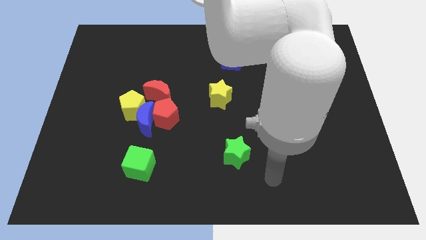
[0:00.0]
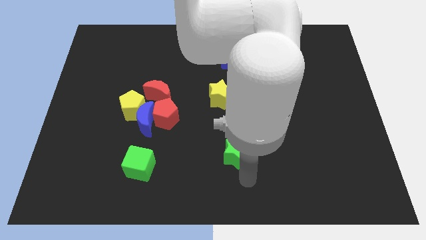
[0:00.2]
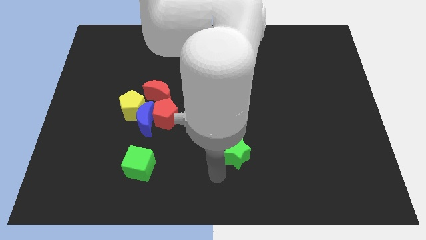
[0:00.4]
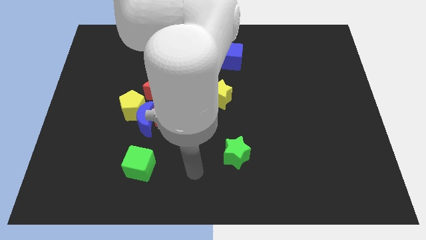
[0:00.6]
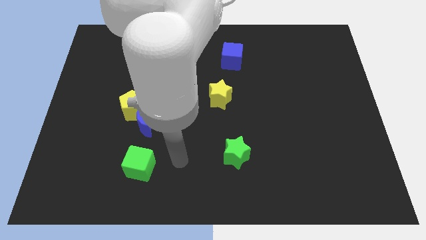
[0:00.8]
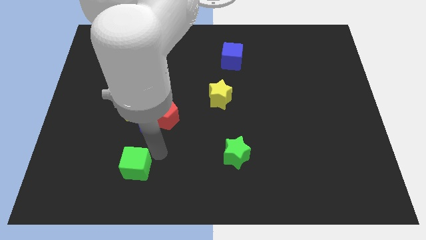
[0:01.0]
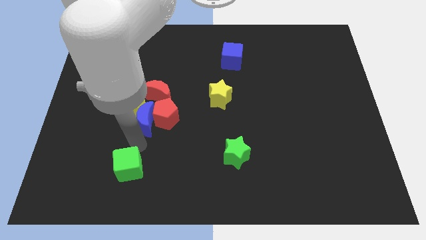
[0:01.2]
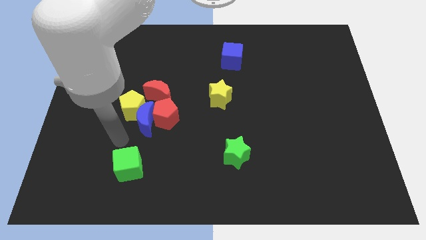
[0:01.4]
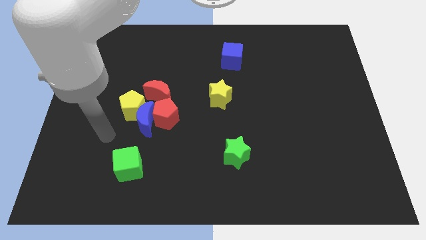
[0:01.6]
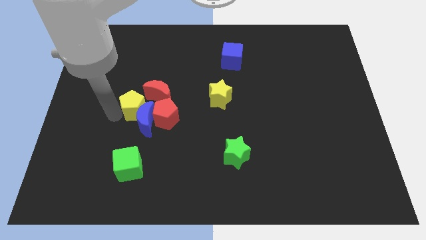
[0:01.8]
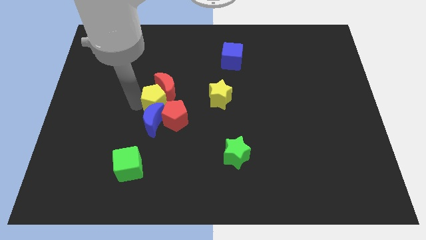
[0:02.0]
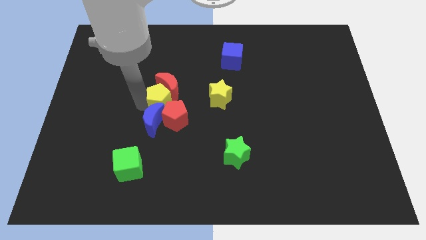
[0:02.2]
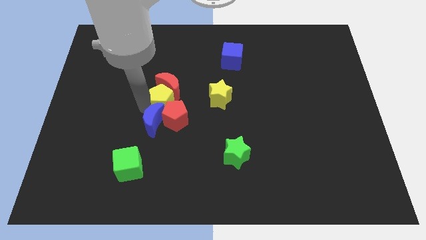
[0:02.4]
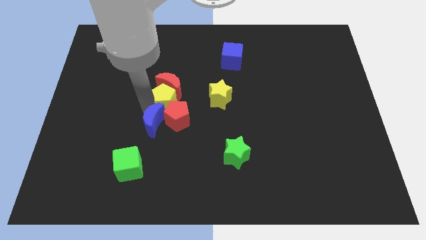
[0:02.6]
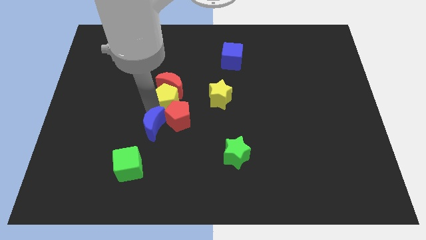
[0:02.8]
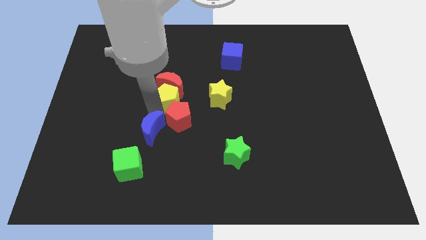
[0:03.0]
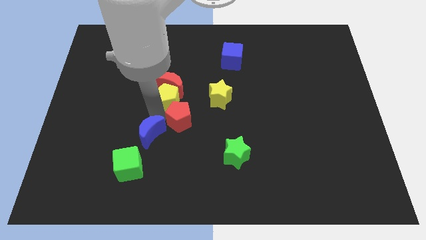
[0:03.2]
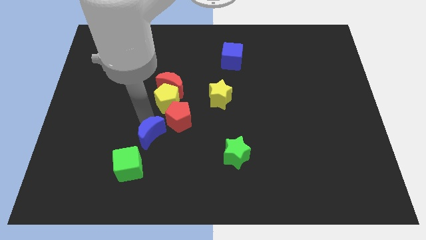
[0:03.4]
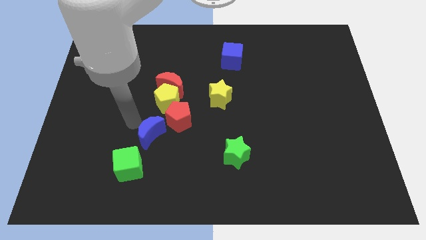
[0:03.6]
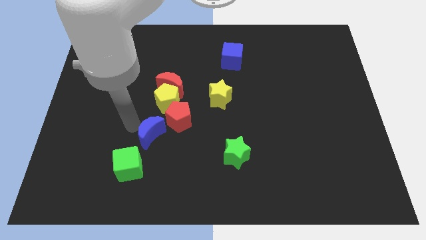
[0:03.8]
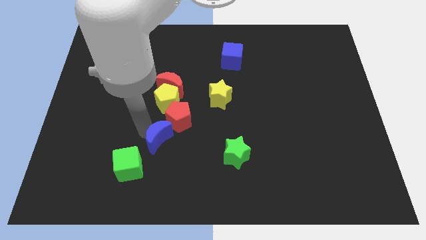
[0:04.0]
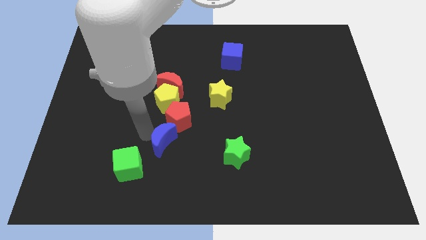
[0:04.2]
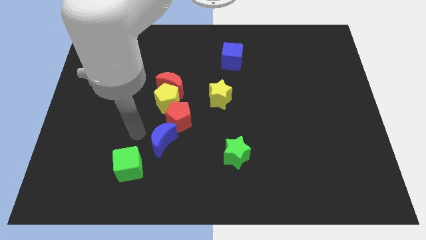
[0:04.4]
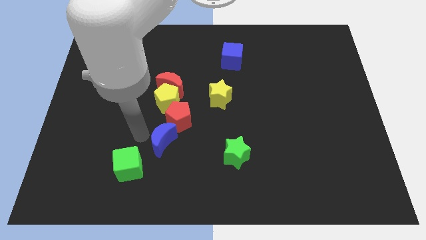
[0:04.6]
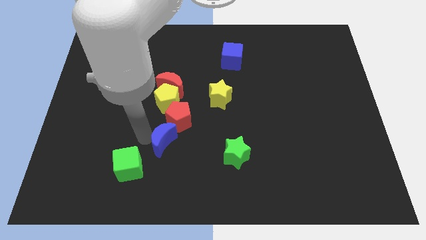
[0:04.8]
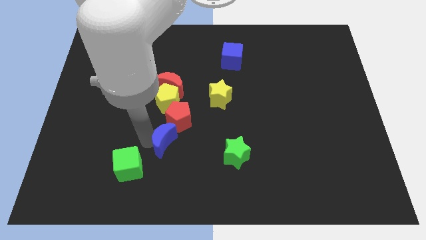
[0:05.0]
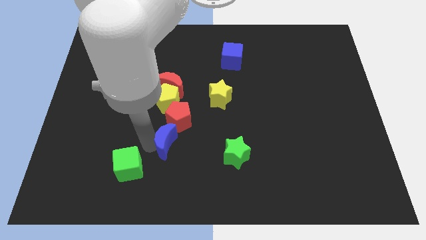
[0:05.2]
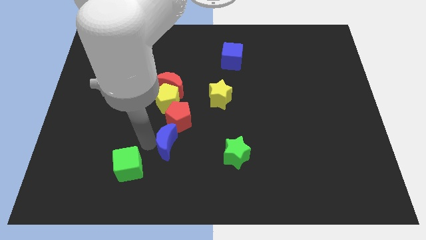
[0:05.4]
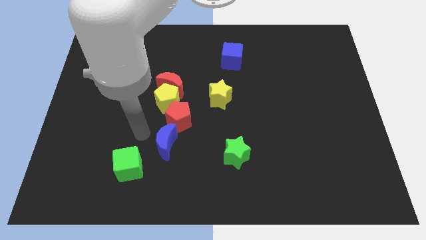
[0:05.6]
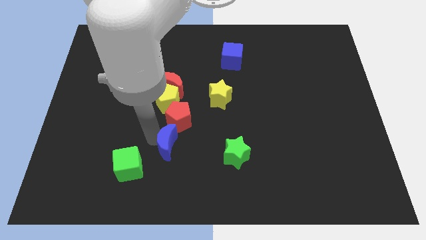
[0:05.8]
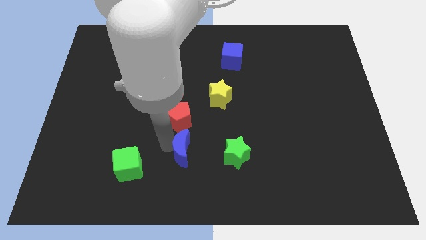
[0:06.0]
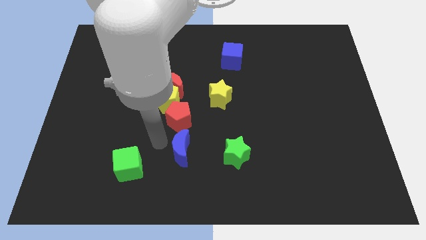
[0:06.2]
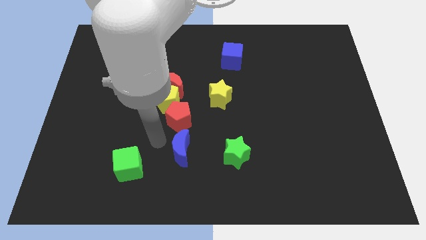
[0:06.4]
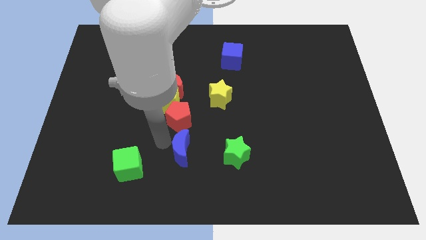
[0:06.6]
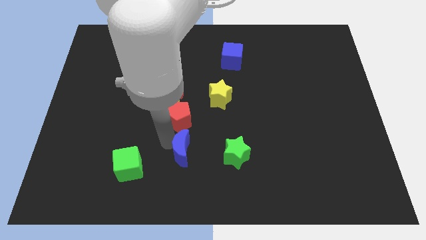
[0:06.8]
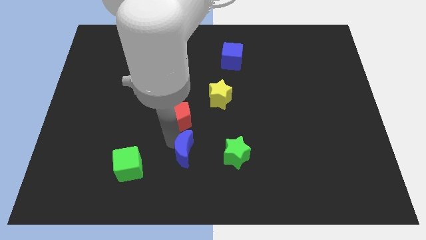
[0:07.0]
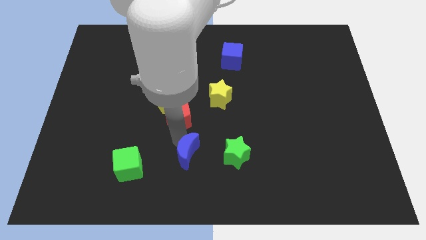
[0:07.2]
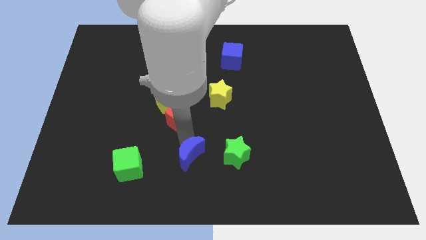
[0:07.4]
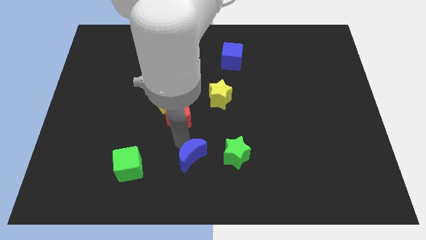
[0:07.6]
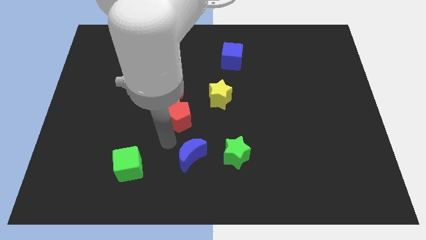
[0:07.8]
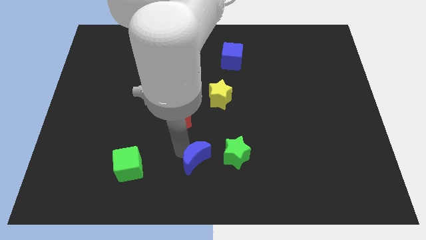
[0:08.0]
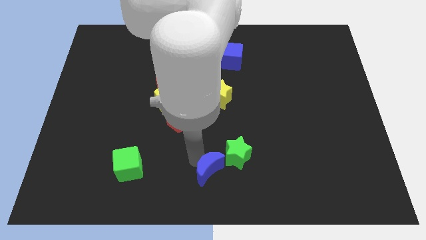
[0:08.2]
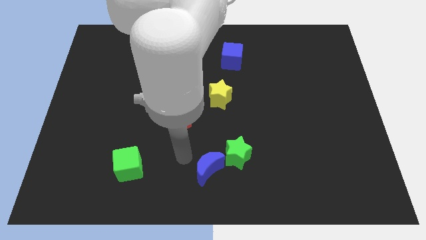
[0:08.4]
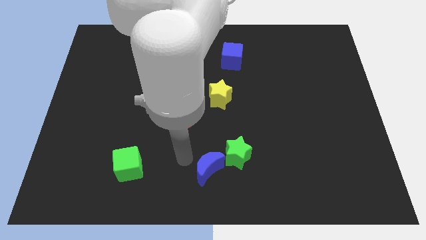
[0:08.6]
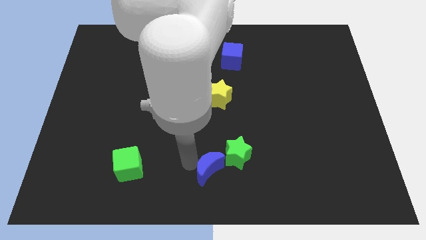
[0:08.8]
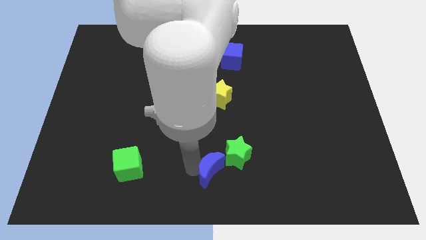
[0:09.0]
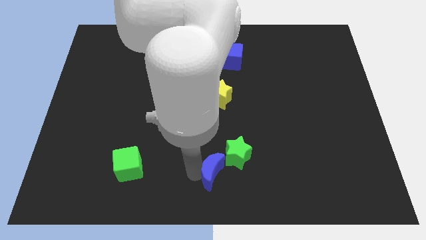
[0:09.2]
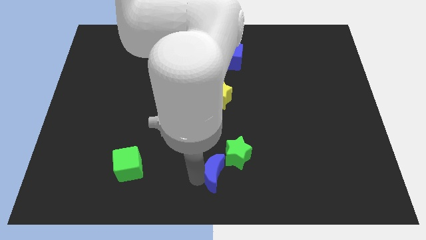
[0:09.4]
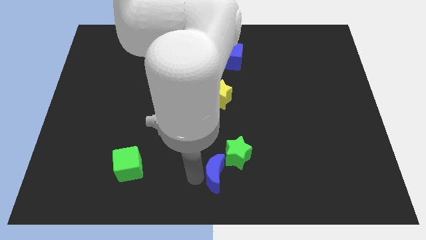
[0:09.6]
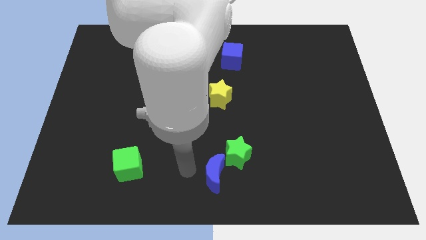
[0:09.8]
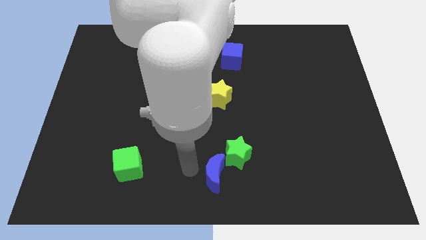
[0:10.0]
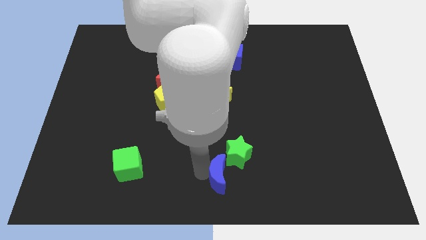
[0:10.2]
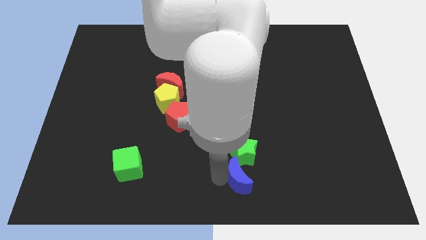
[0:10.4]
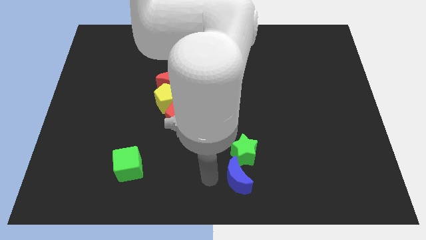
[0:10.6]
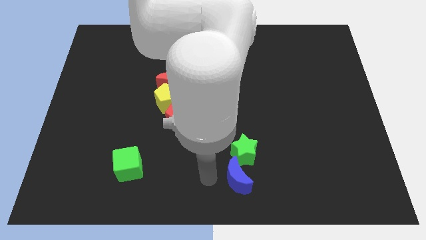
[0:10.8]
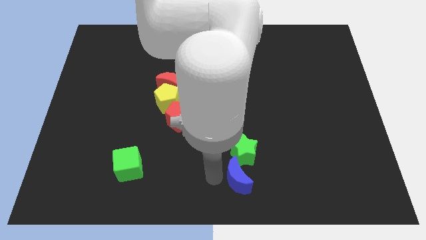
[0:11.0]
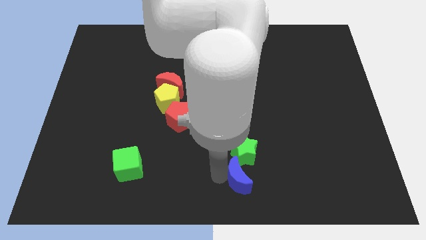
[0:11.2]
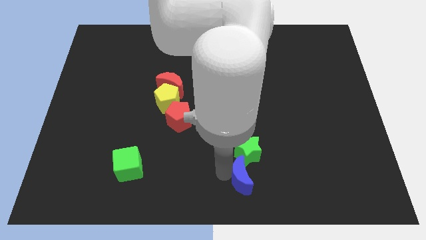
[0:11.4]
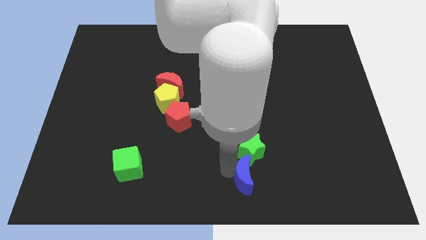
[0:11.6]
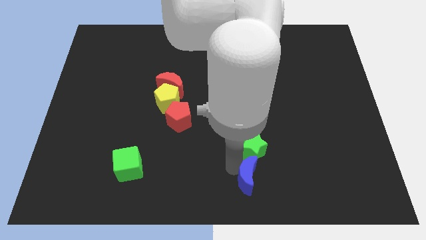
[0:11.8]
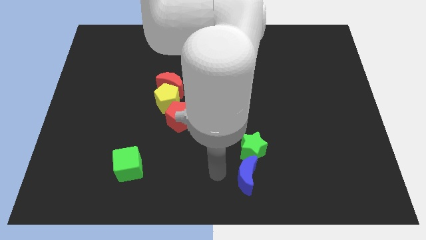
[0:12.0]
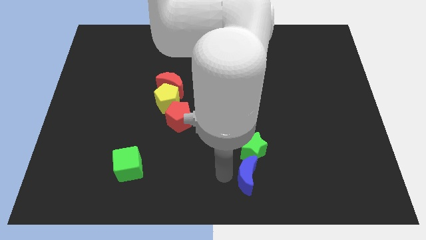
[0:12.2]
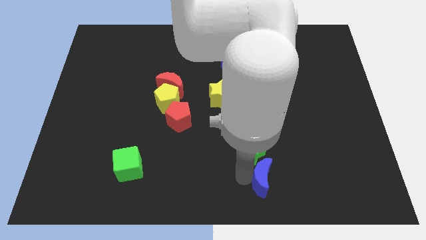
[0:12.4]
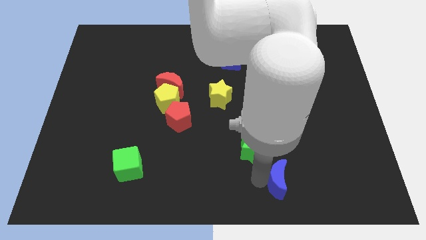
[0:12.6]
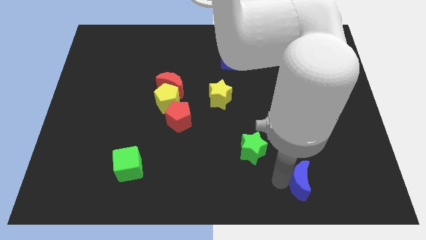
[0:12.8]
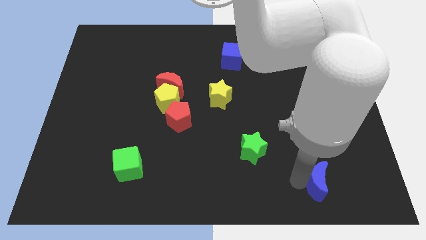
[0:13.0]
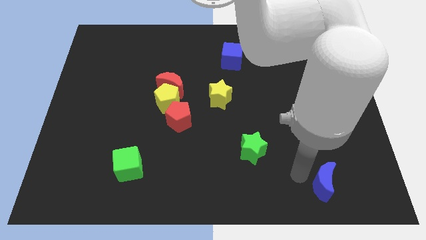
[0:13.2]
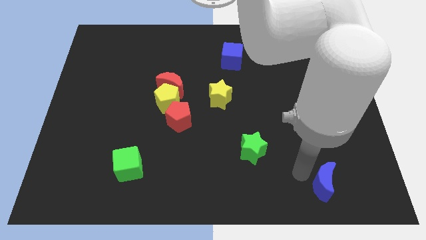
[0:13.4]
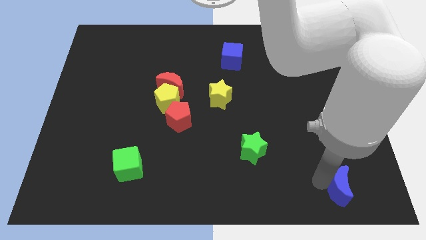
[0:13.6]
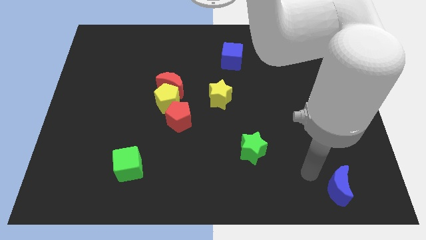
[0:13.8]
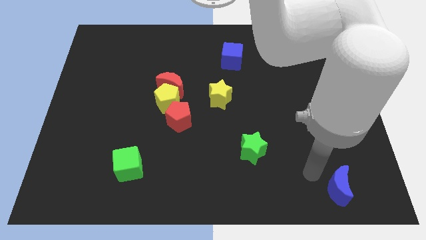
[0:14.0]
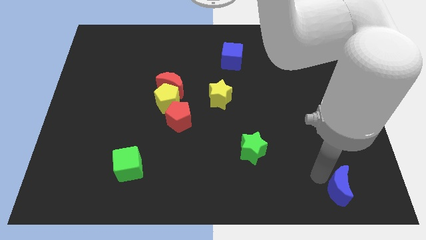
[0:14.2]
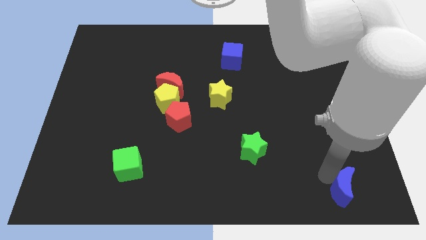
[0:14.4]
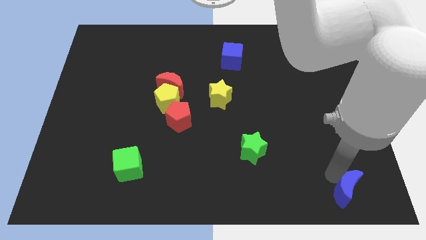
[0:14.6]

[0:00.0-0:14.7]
move the blue moon to the lower right corner
